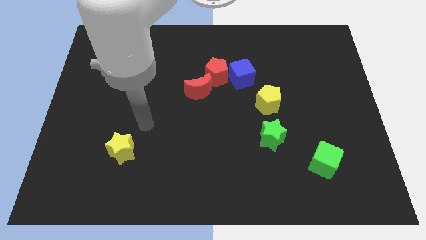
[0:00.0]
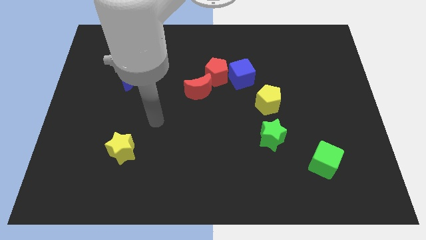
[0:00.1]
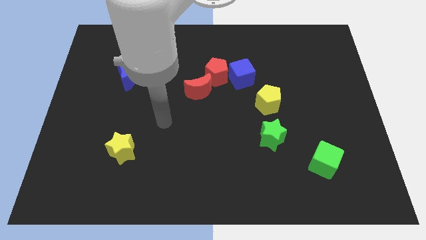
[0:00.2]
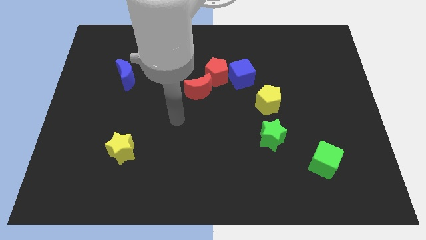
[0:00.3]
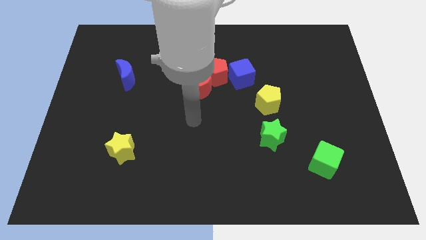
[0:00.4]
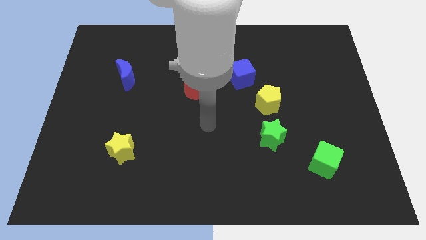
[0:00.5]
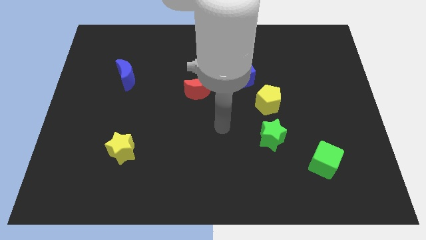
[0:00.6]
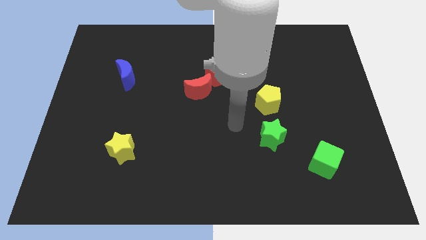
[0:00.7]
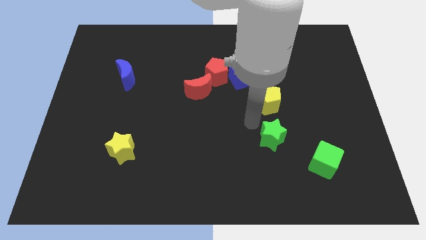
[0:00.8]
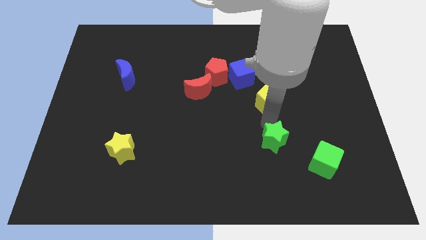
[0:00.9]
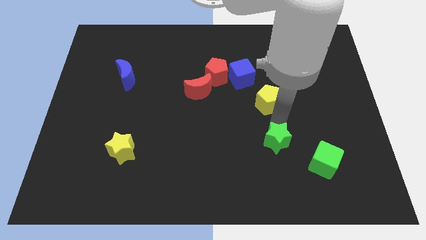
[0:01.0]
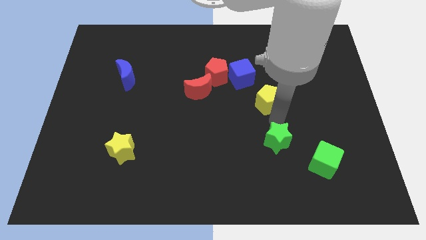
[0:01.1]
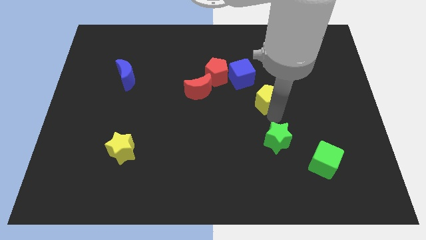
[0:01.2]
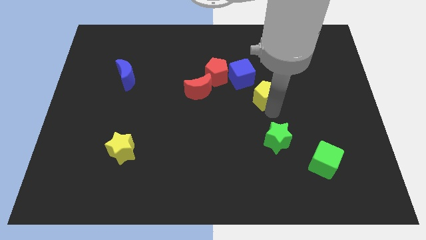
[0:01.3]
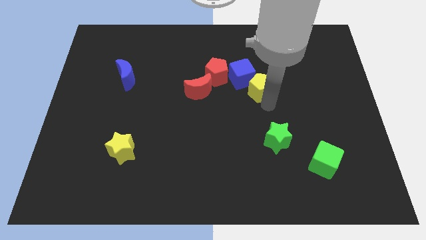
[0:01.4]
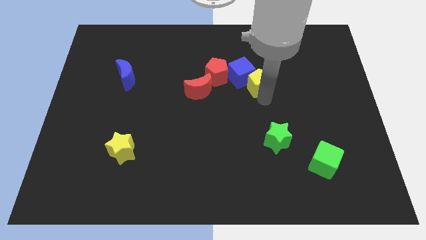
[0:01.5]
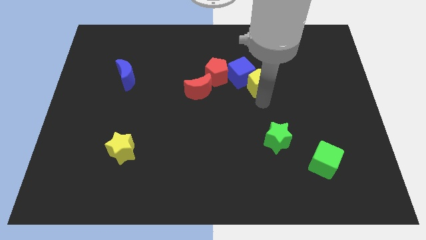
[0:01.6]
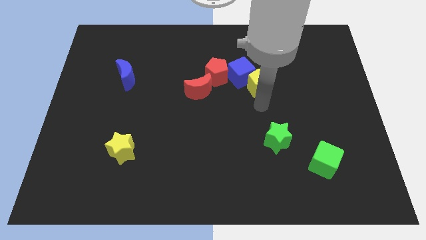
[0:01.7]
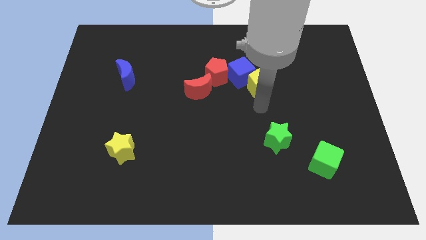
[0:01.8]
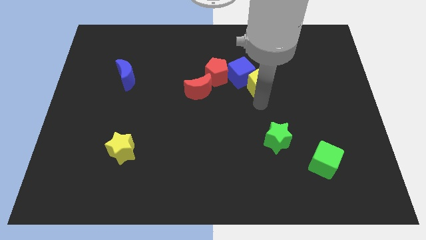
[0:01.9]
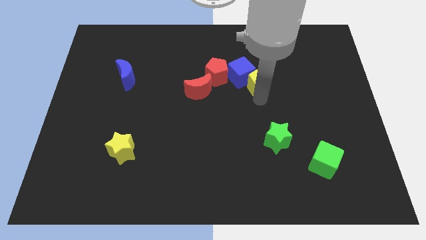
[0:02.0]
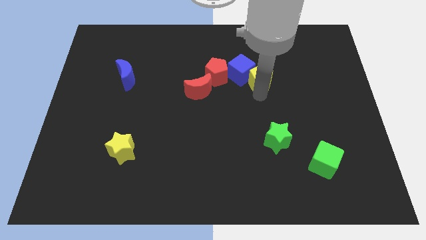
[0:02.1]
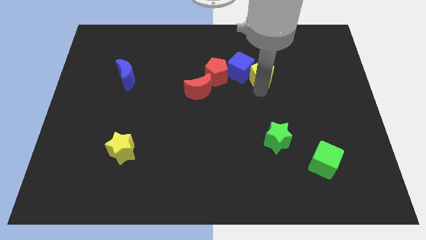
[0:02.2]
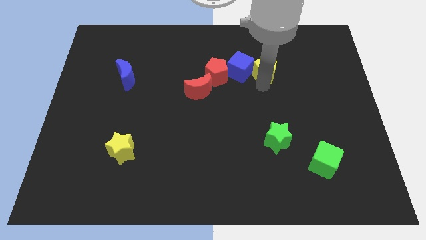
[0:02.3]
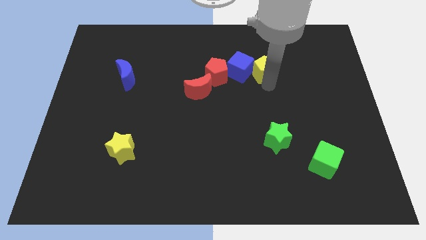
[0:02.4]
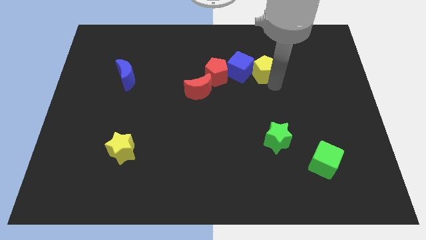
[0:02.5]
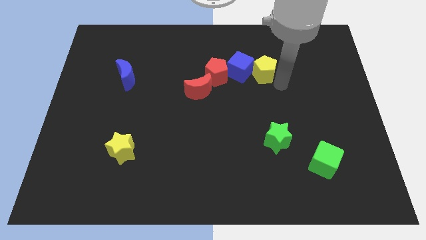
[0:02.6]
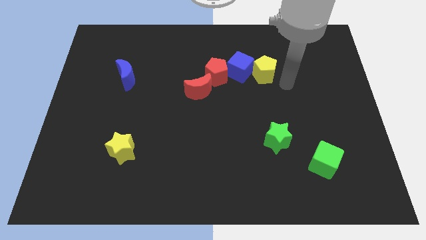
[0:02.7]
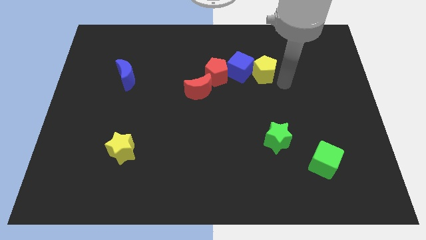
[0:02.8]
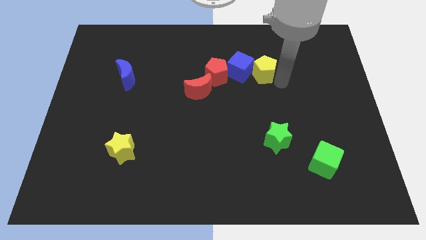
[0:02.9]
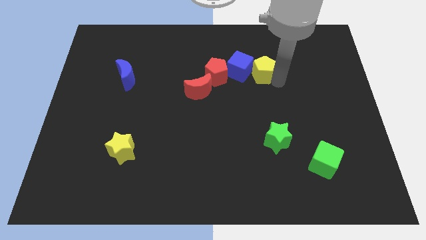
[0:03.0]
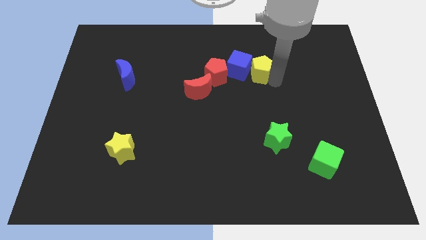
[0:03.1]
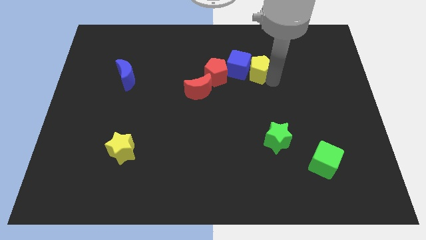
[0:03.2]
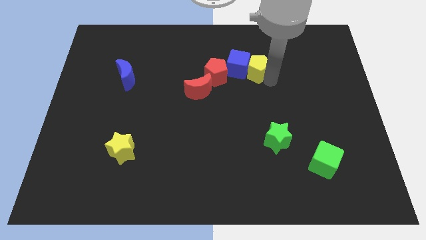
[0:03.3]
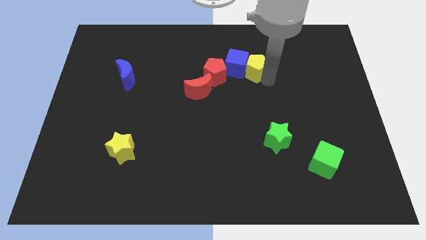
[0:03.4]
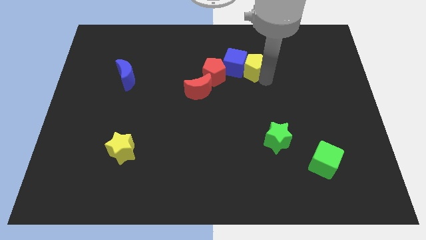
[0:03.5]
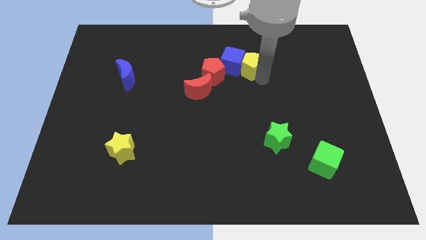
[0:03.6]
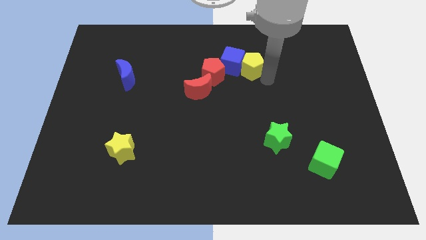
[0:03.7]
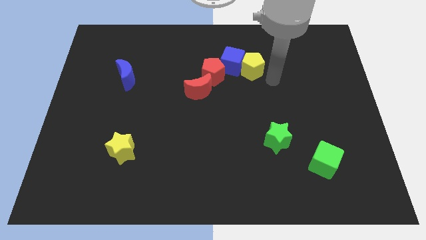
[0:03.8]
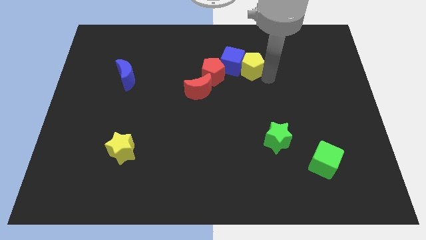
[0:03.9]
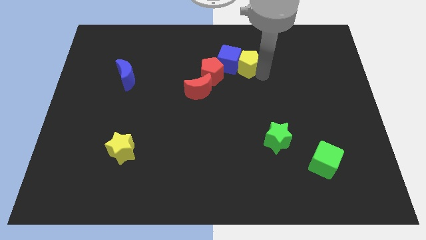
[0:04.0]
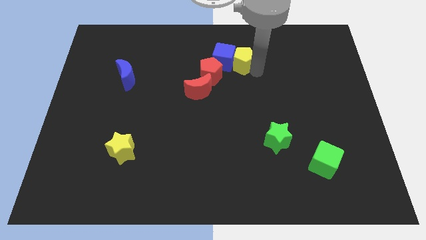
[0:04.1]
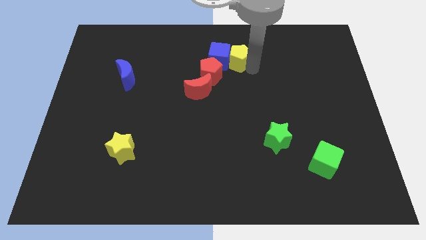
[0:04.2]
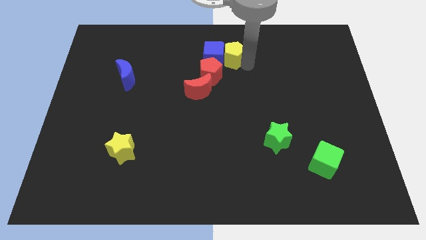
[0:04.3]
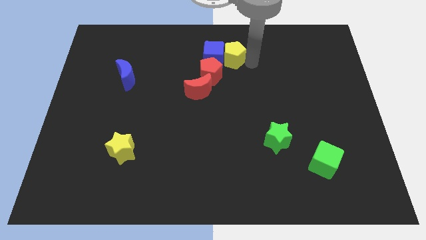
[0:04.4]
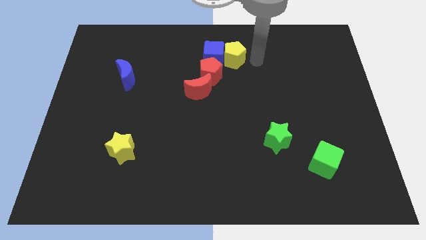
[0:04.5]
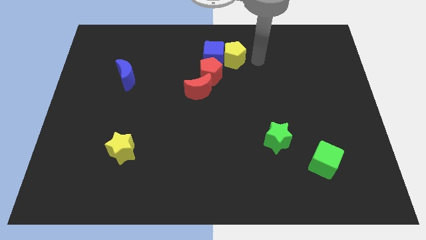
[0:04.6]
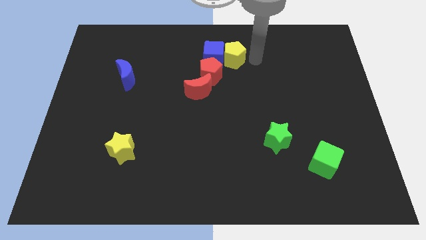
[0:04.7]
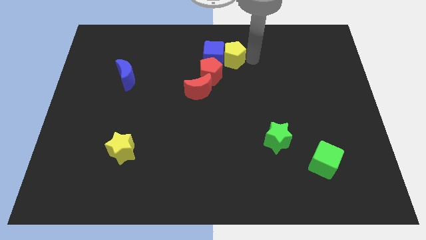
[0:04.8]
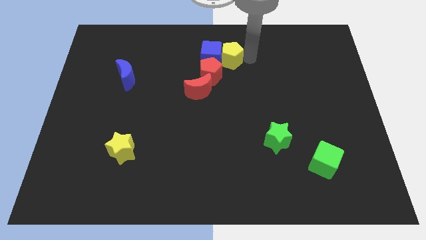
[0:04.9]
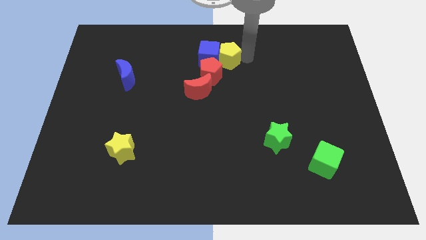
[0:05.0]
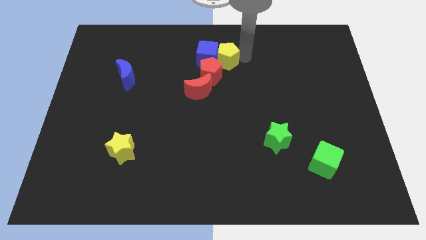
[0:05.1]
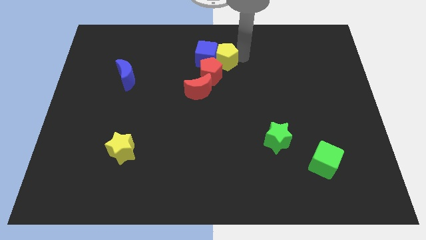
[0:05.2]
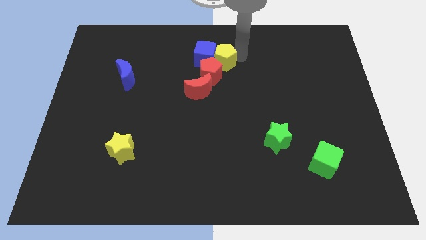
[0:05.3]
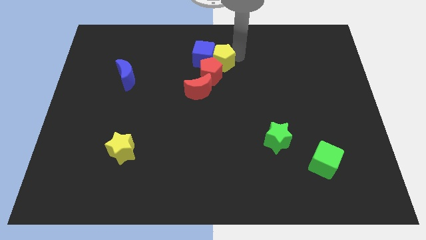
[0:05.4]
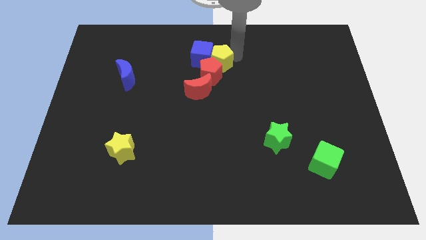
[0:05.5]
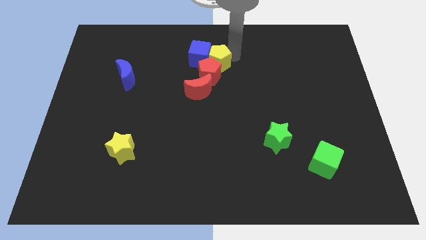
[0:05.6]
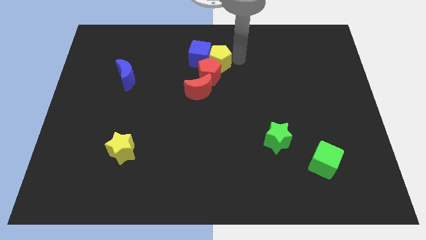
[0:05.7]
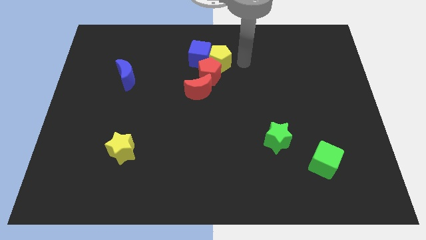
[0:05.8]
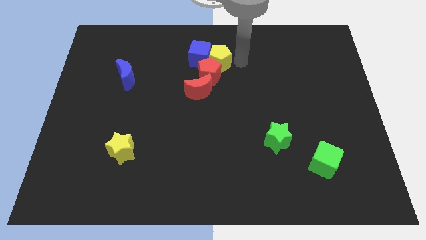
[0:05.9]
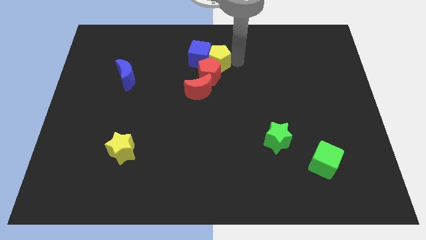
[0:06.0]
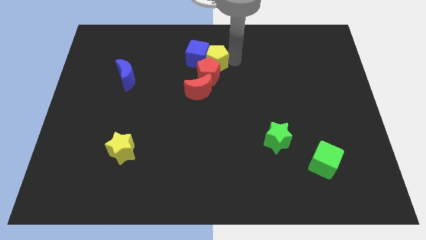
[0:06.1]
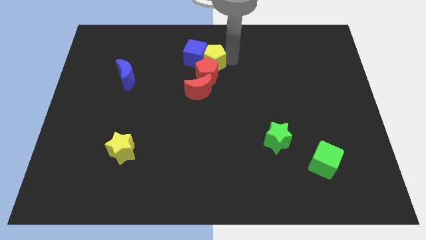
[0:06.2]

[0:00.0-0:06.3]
push the yellow pentagon diagonally up and to the left of the red pentagon

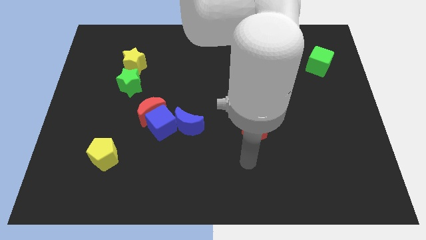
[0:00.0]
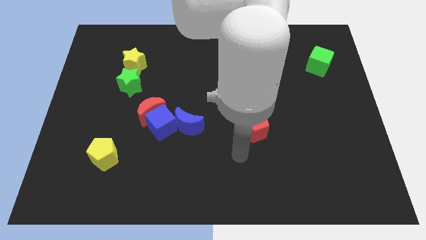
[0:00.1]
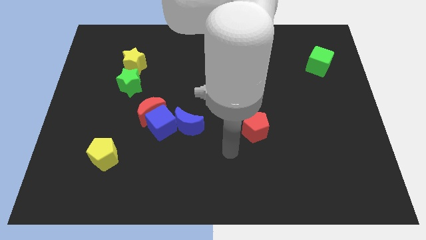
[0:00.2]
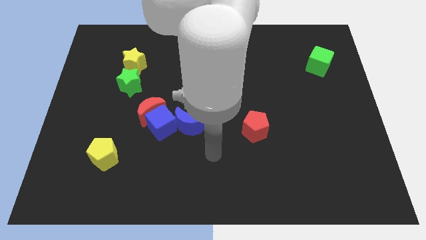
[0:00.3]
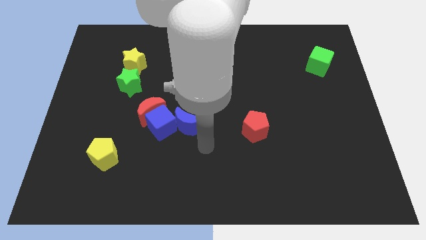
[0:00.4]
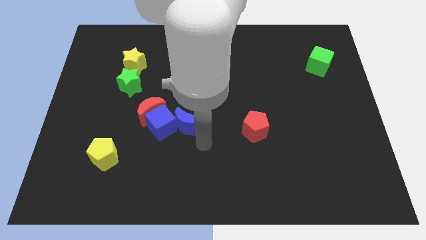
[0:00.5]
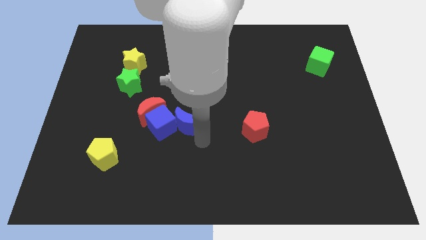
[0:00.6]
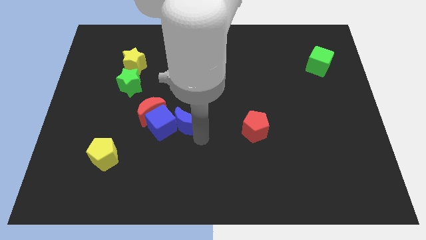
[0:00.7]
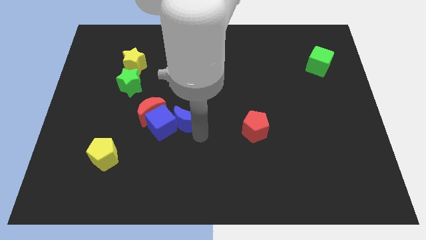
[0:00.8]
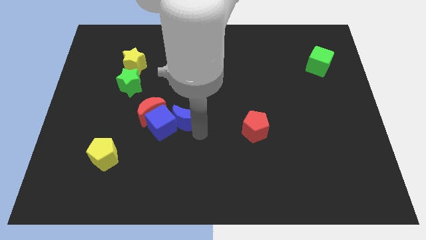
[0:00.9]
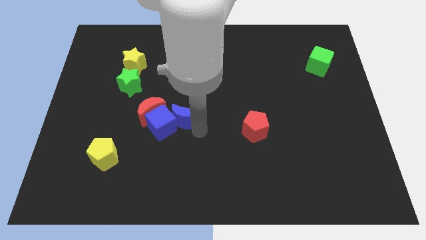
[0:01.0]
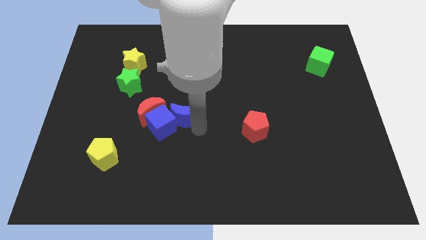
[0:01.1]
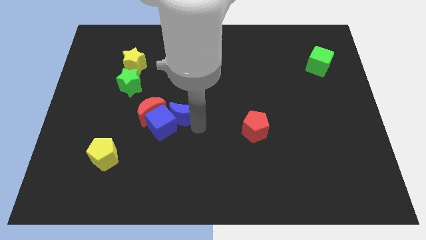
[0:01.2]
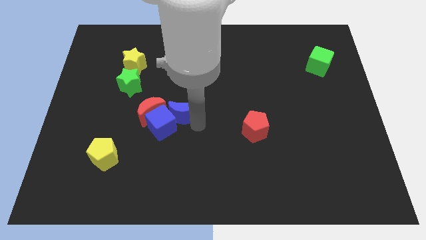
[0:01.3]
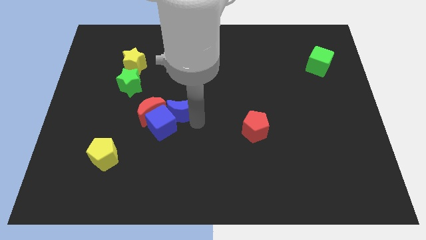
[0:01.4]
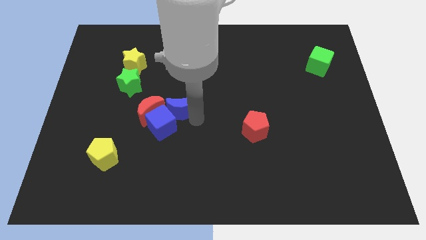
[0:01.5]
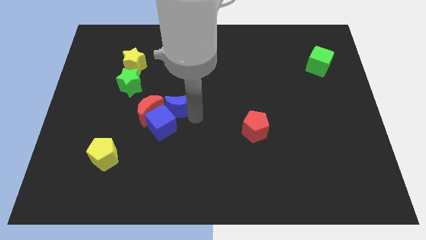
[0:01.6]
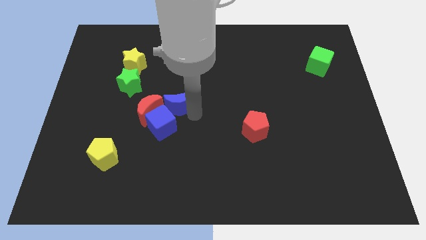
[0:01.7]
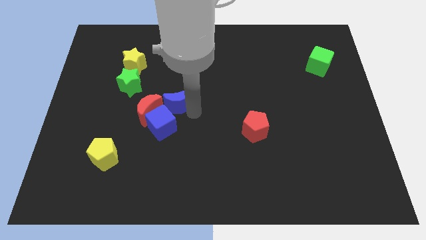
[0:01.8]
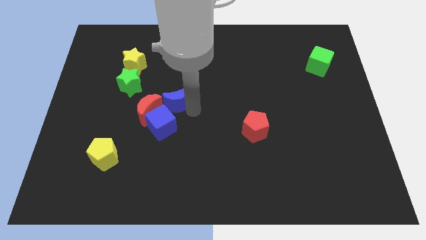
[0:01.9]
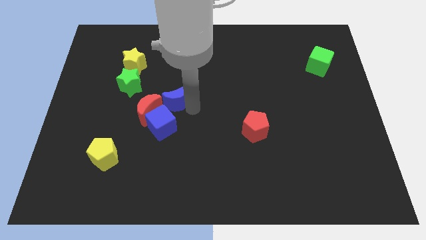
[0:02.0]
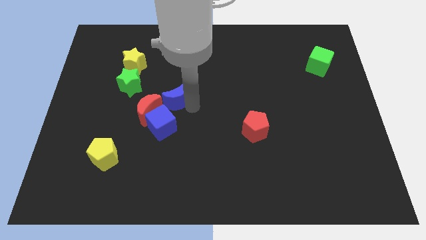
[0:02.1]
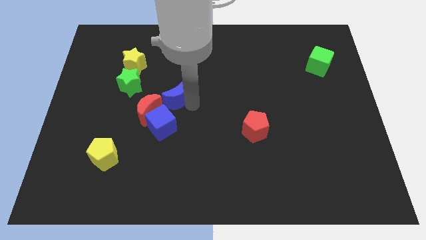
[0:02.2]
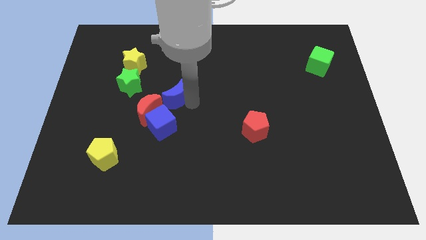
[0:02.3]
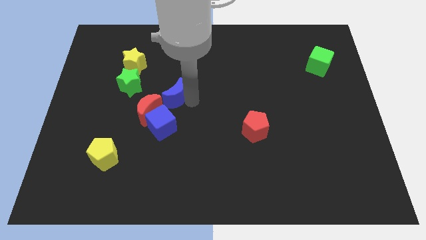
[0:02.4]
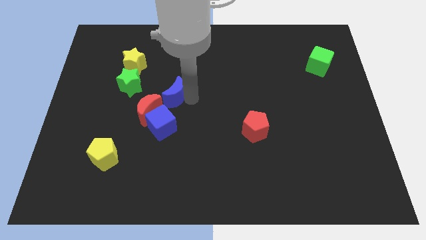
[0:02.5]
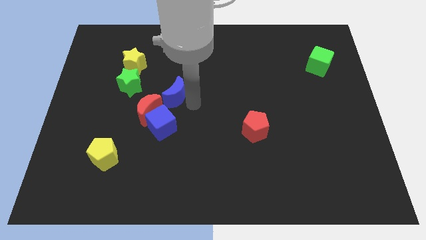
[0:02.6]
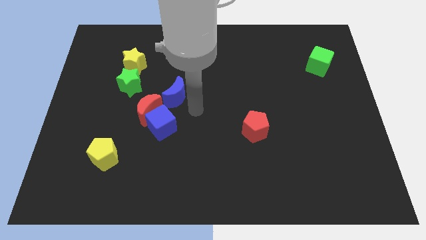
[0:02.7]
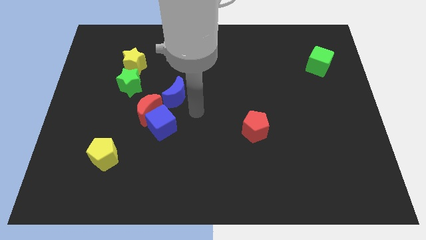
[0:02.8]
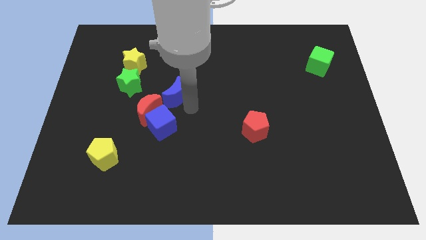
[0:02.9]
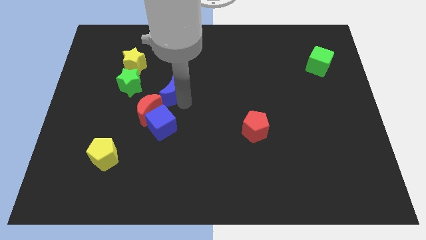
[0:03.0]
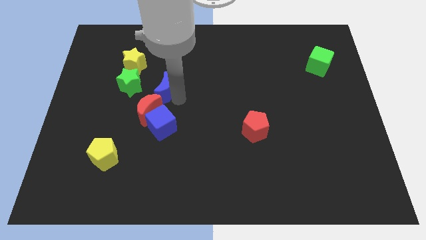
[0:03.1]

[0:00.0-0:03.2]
slide the blue moon to the bottom right of the yellow star
